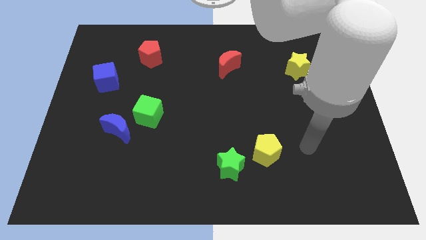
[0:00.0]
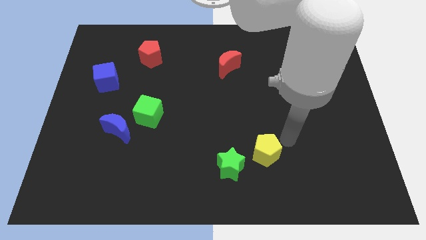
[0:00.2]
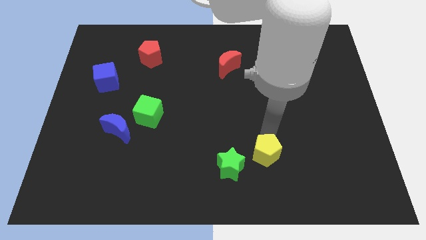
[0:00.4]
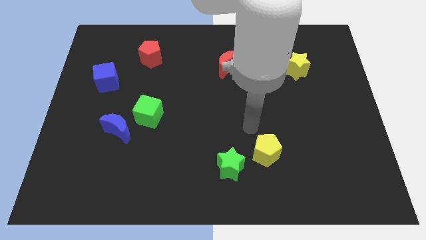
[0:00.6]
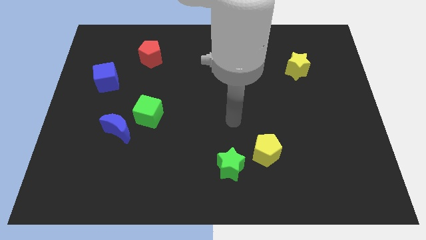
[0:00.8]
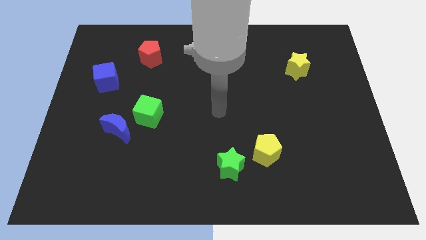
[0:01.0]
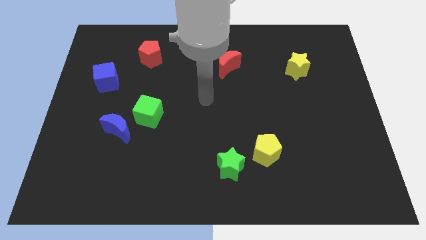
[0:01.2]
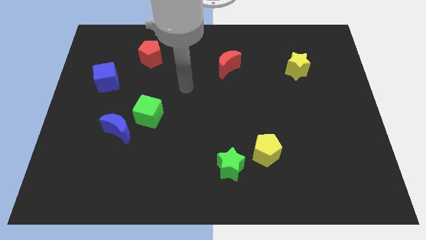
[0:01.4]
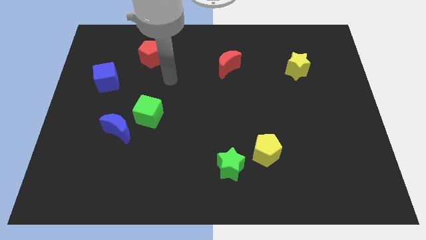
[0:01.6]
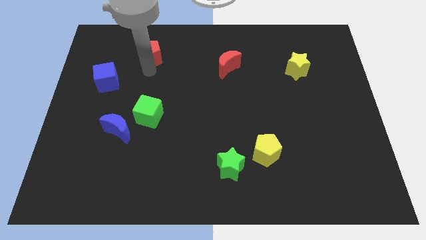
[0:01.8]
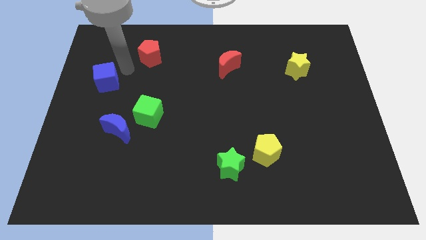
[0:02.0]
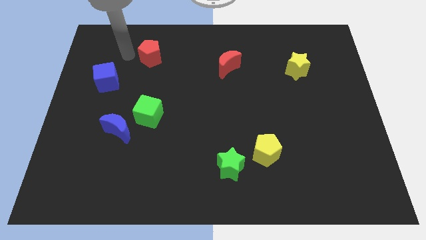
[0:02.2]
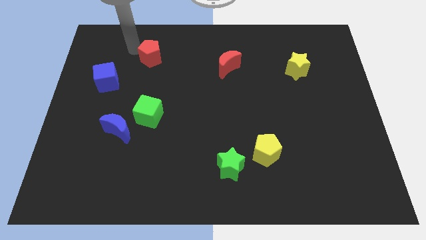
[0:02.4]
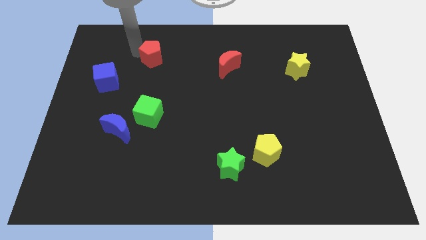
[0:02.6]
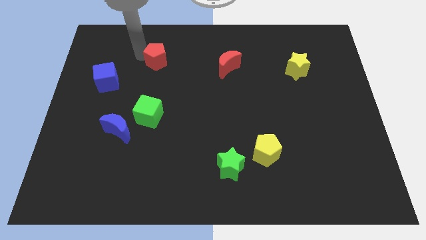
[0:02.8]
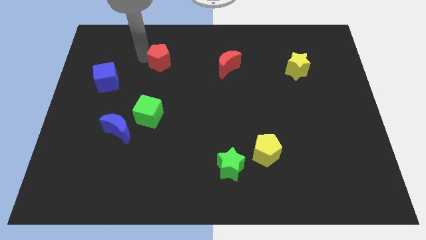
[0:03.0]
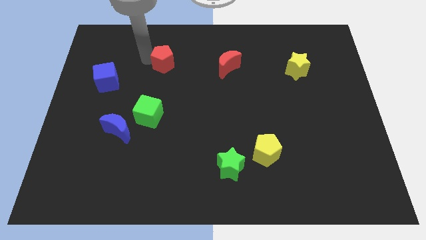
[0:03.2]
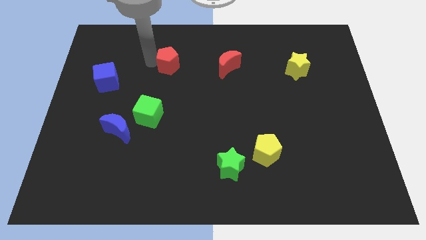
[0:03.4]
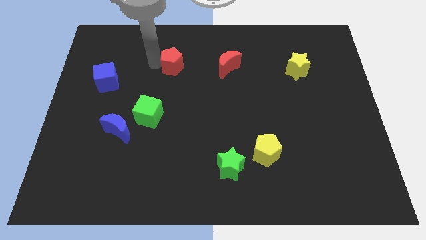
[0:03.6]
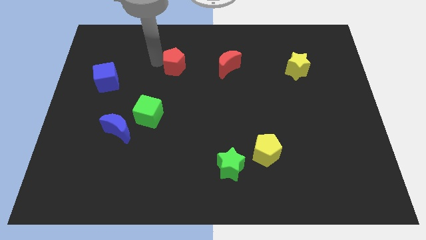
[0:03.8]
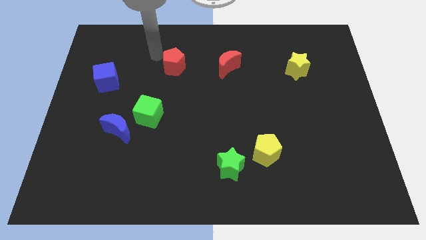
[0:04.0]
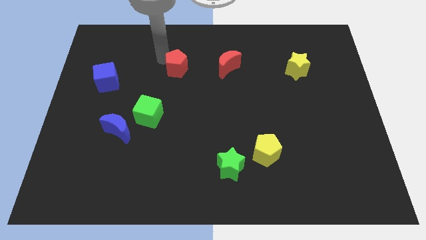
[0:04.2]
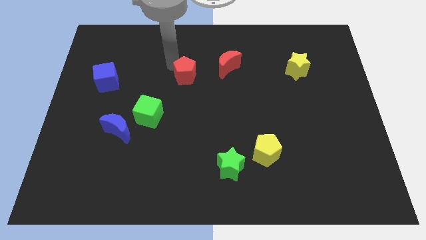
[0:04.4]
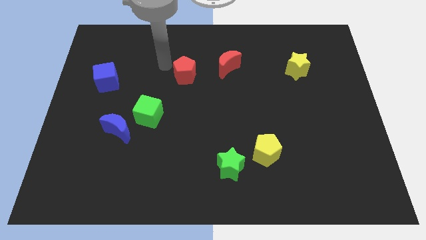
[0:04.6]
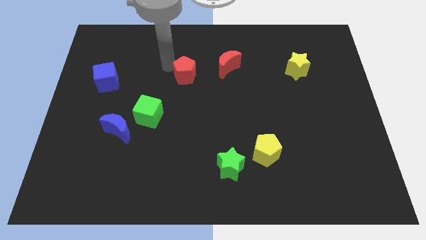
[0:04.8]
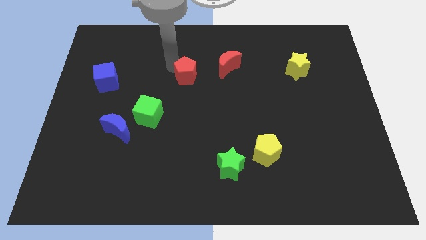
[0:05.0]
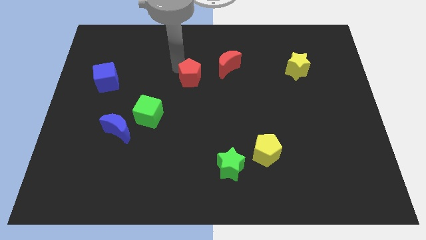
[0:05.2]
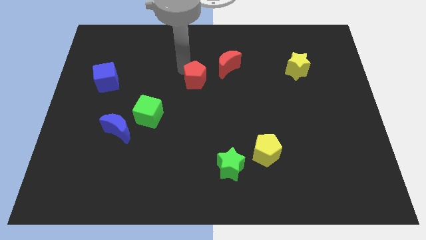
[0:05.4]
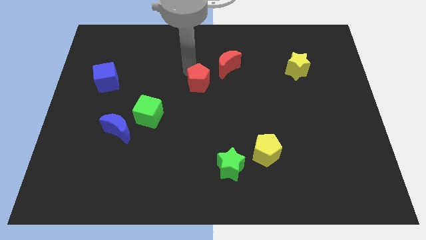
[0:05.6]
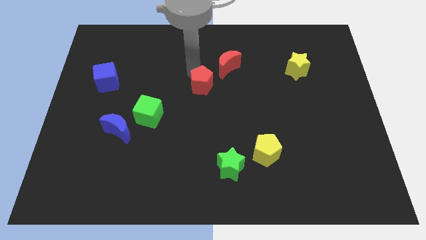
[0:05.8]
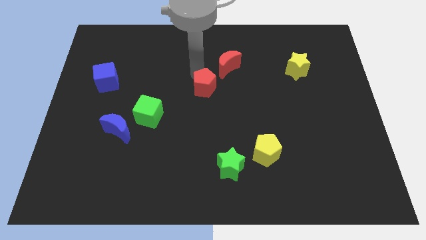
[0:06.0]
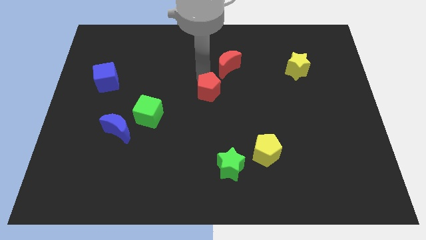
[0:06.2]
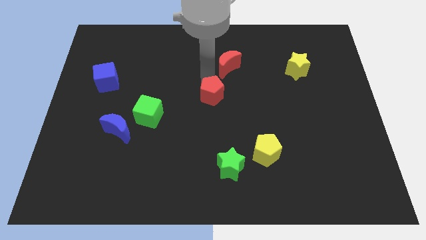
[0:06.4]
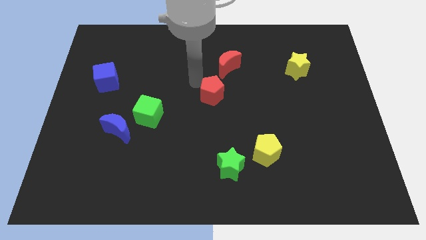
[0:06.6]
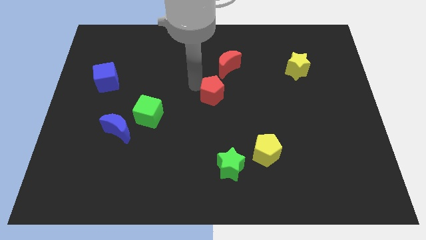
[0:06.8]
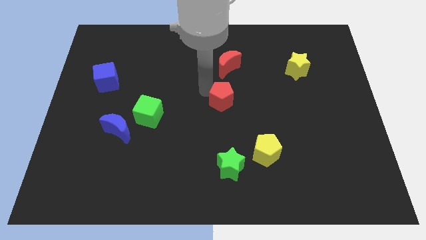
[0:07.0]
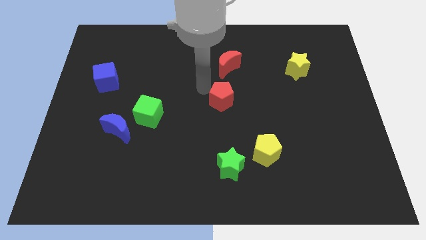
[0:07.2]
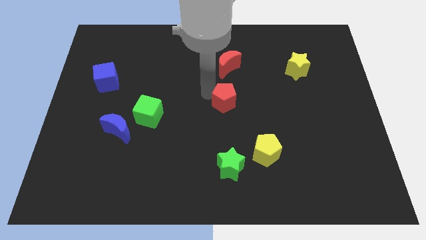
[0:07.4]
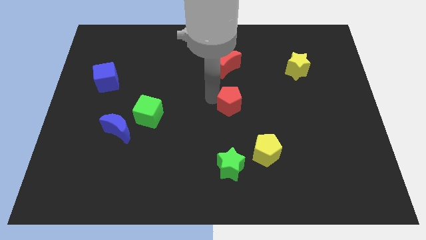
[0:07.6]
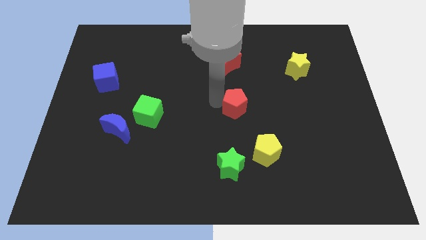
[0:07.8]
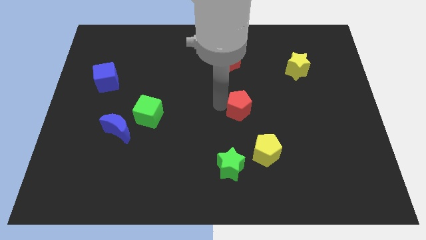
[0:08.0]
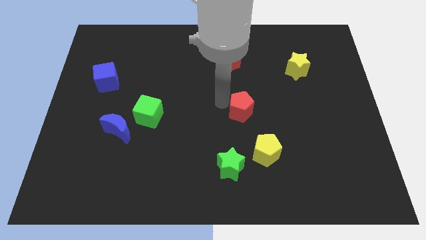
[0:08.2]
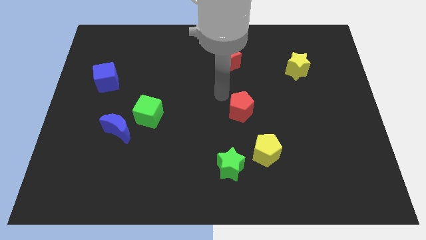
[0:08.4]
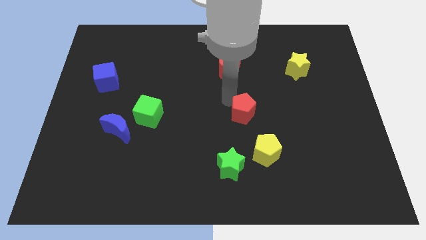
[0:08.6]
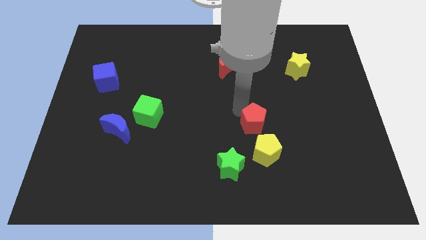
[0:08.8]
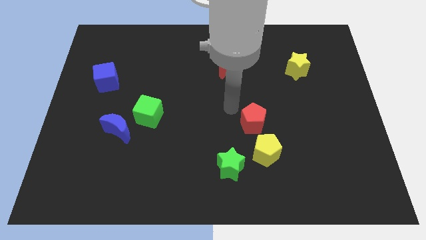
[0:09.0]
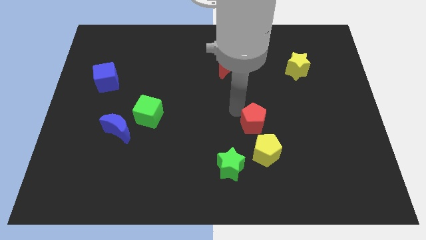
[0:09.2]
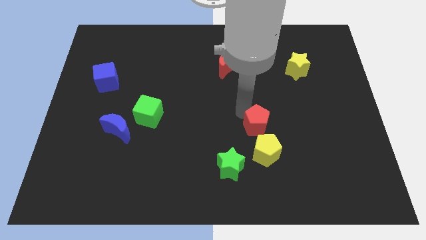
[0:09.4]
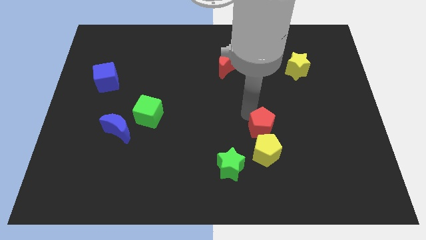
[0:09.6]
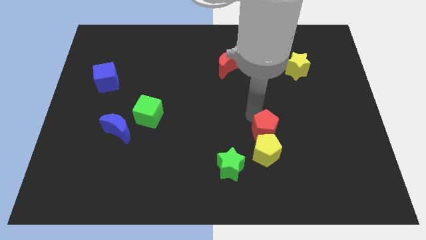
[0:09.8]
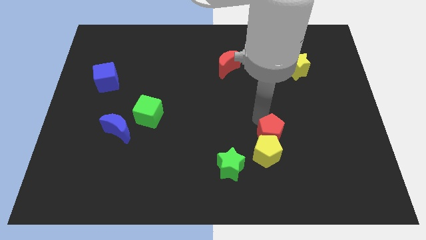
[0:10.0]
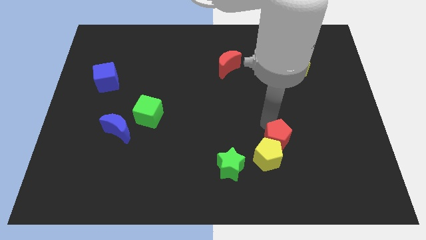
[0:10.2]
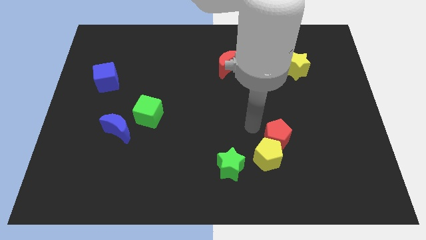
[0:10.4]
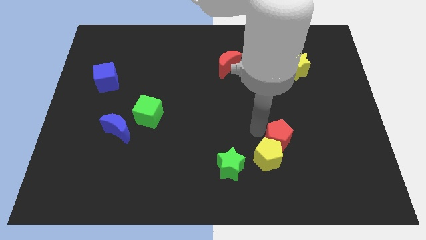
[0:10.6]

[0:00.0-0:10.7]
slide the red pentagon to the right side of the yellow pentagon

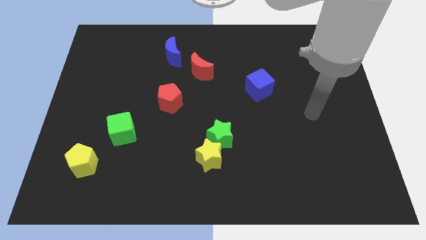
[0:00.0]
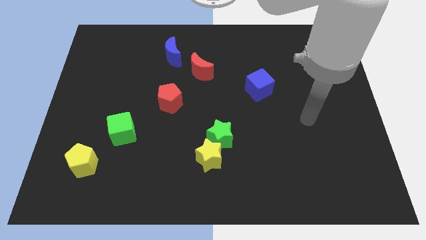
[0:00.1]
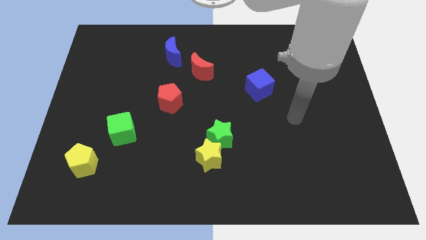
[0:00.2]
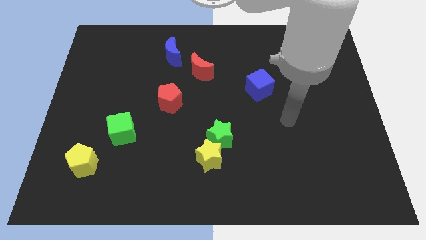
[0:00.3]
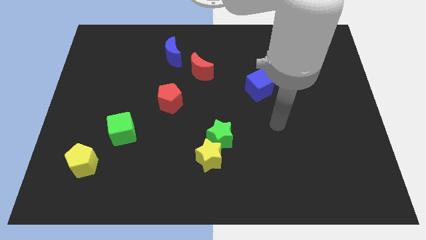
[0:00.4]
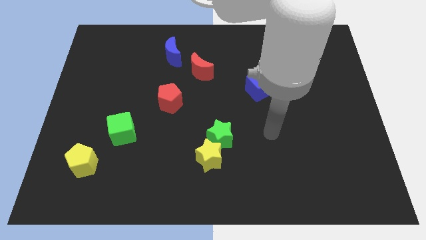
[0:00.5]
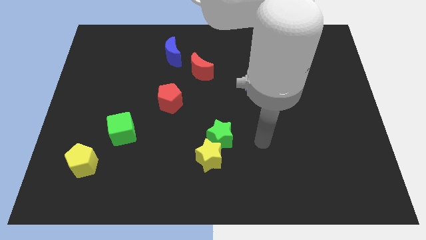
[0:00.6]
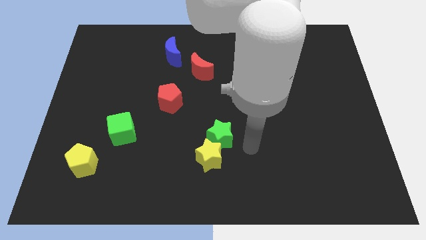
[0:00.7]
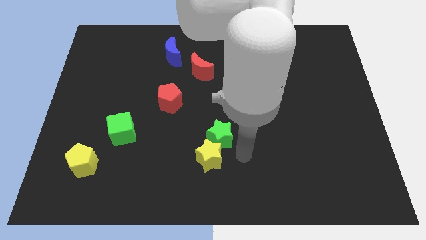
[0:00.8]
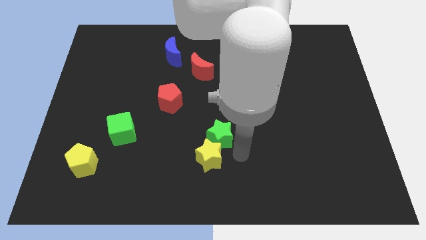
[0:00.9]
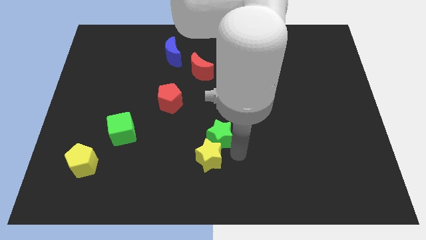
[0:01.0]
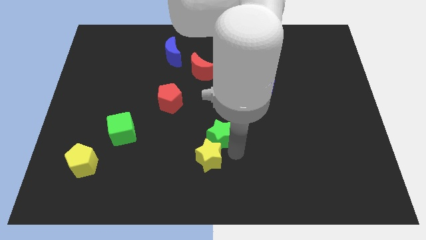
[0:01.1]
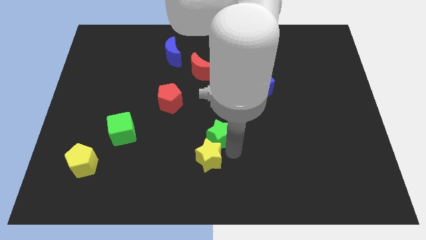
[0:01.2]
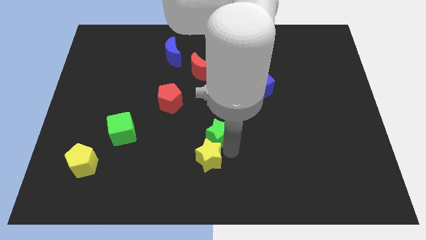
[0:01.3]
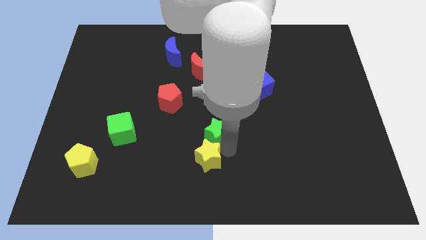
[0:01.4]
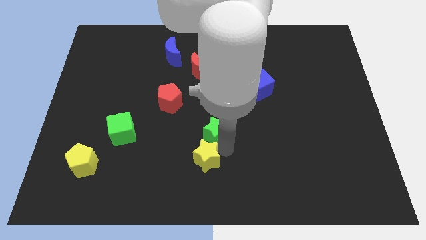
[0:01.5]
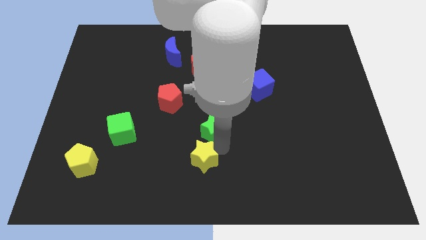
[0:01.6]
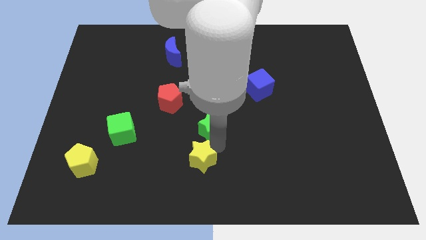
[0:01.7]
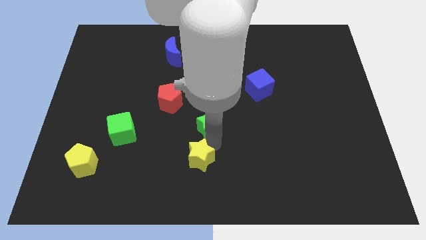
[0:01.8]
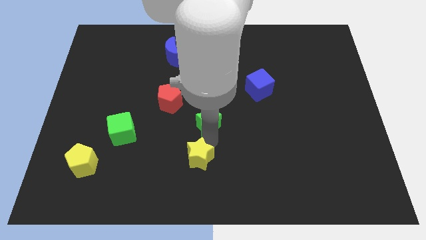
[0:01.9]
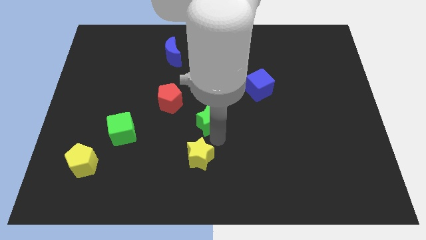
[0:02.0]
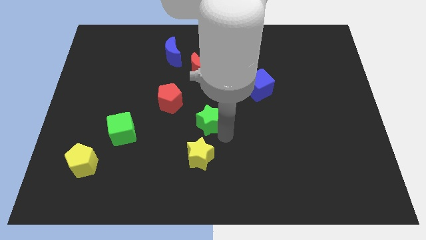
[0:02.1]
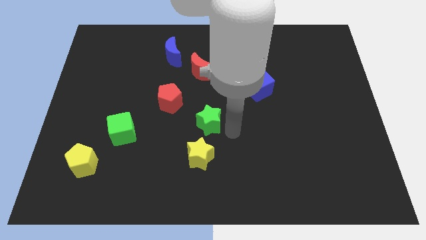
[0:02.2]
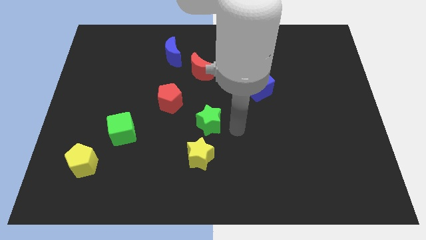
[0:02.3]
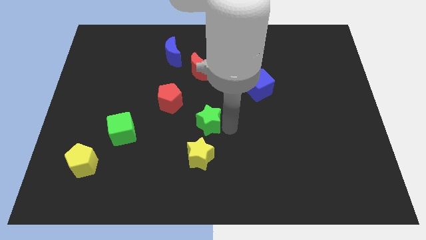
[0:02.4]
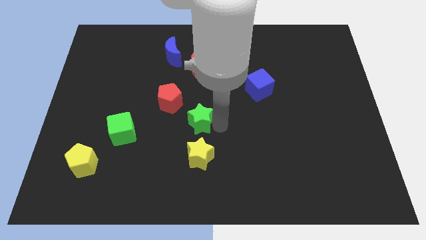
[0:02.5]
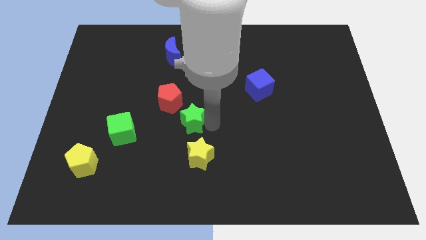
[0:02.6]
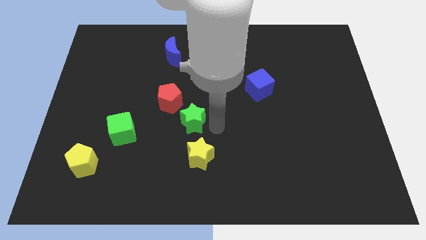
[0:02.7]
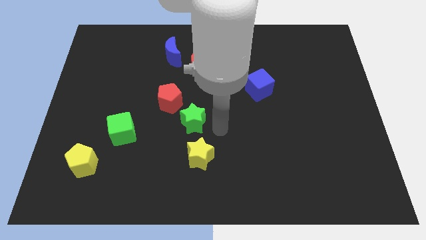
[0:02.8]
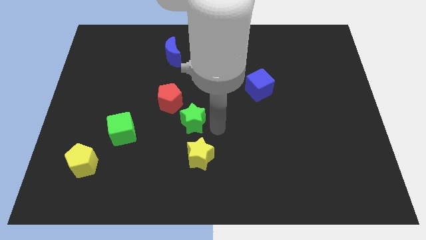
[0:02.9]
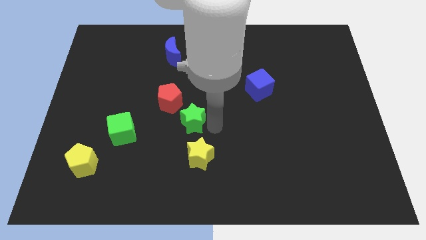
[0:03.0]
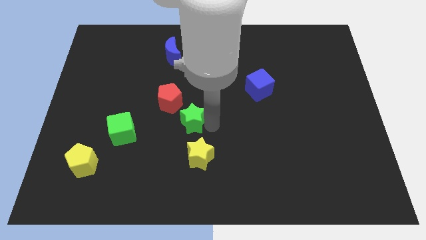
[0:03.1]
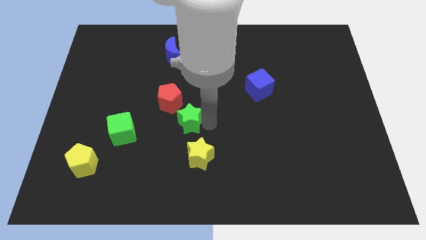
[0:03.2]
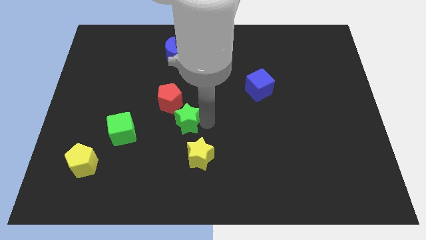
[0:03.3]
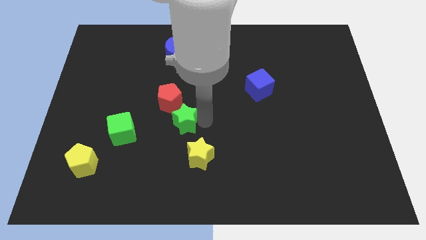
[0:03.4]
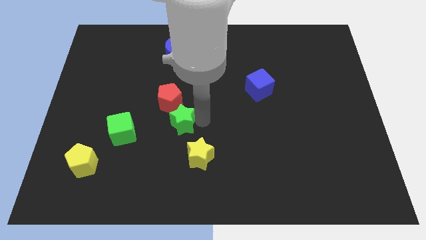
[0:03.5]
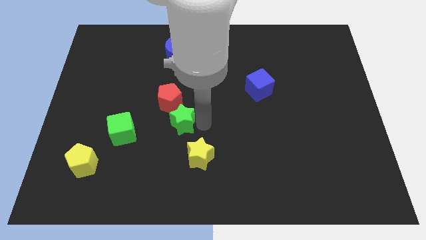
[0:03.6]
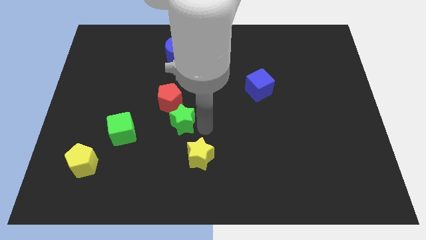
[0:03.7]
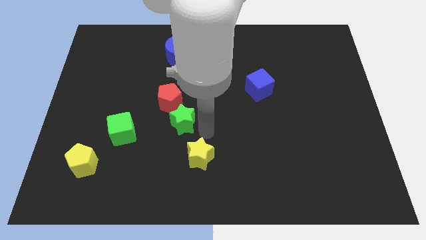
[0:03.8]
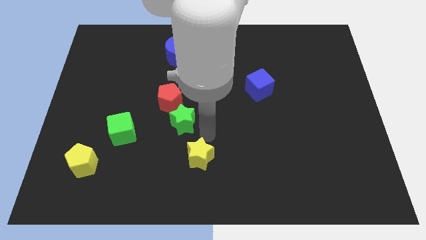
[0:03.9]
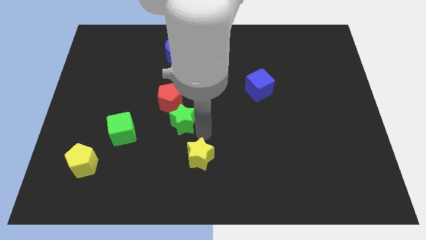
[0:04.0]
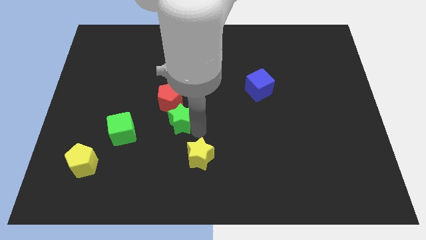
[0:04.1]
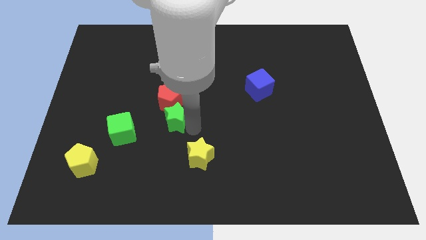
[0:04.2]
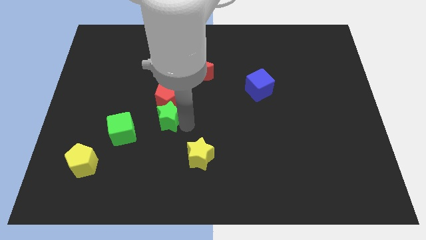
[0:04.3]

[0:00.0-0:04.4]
push the green star diagonally up and to the right of the green cube
